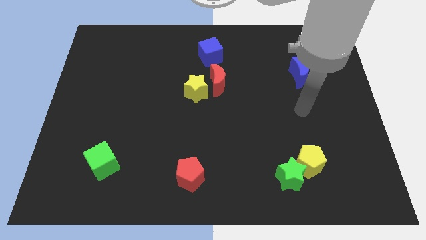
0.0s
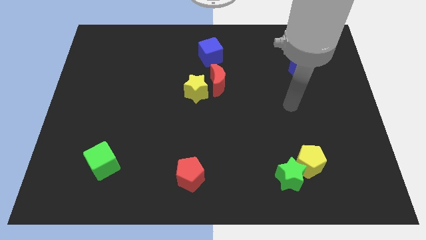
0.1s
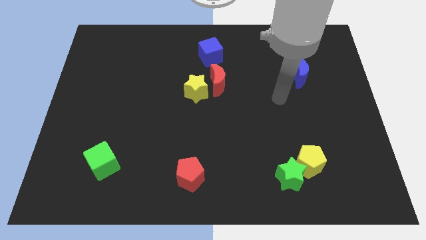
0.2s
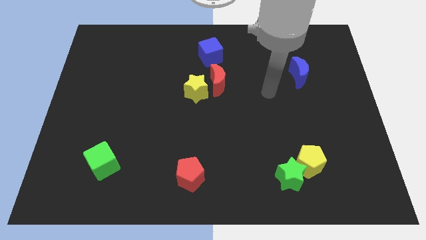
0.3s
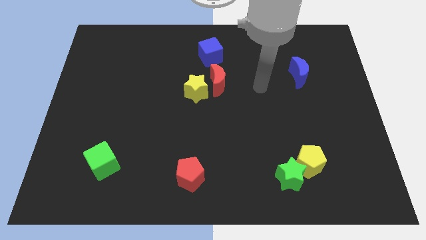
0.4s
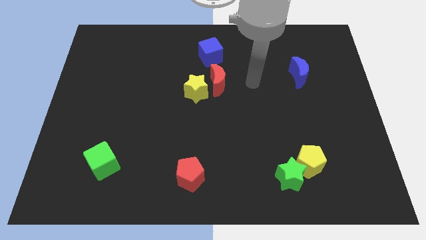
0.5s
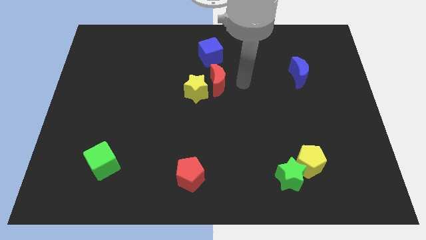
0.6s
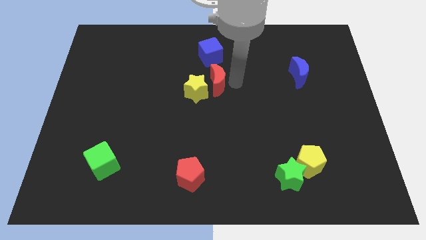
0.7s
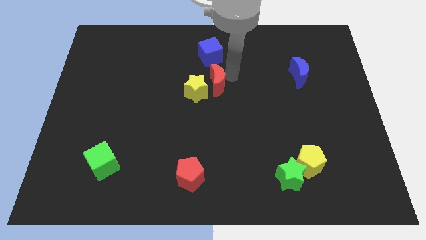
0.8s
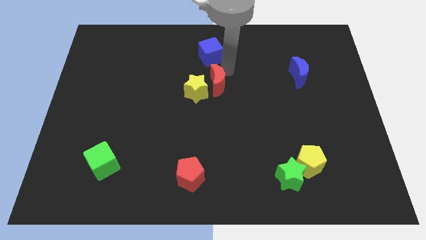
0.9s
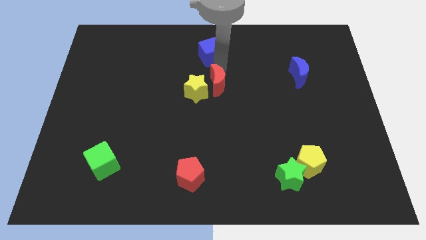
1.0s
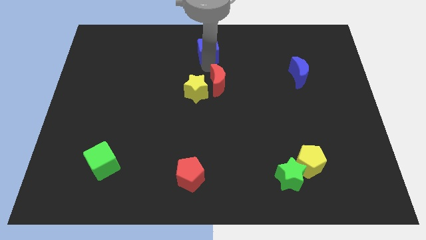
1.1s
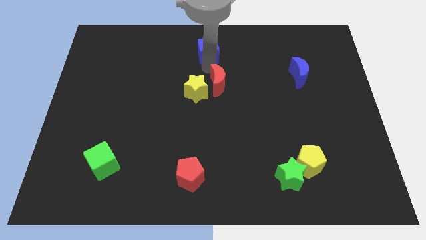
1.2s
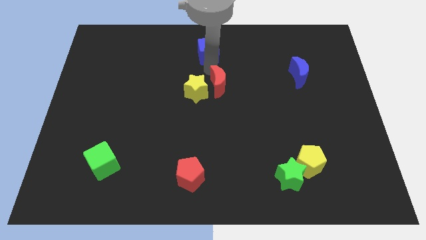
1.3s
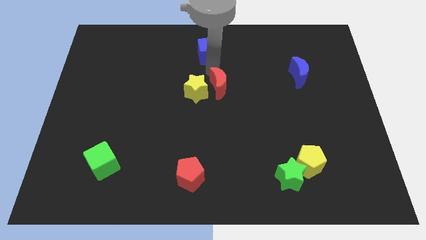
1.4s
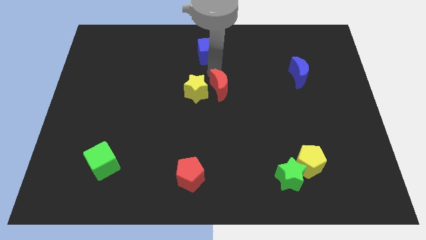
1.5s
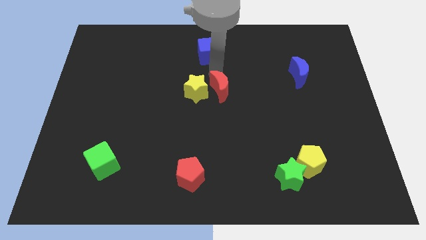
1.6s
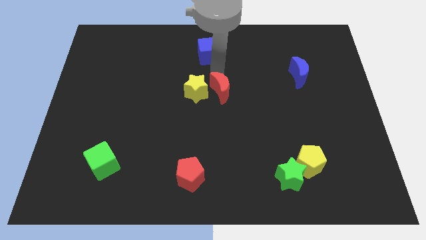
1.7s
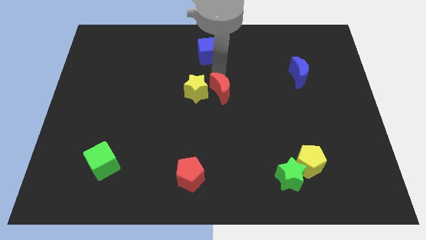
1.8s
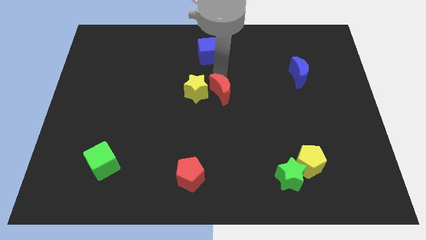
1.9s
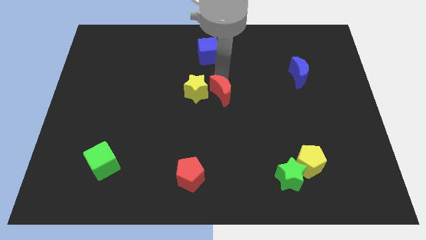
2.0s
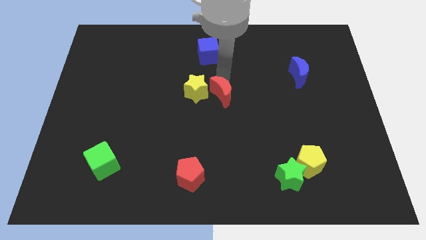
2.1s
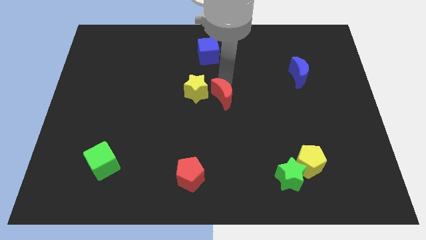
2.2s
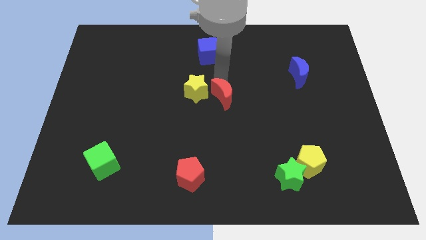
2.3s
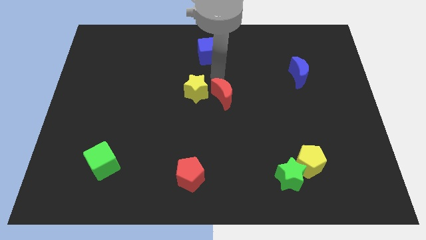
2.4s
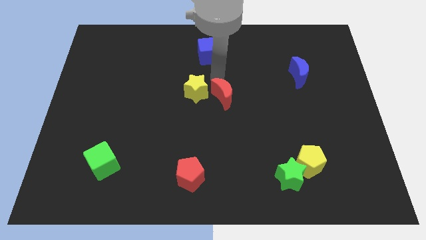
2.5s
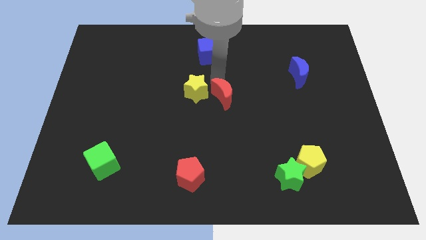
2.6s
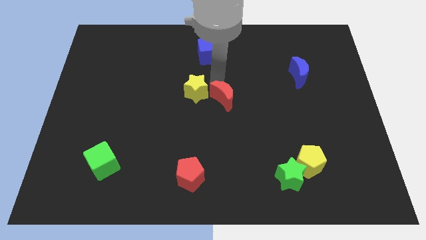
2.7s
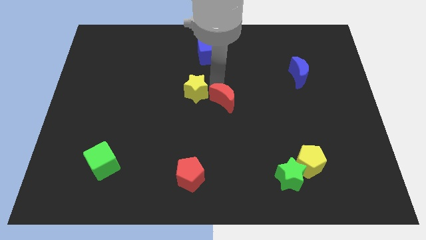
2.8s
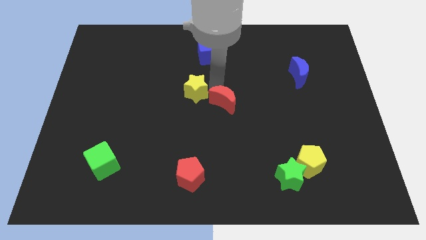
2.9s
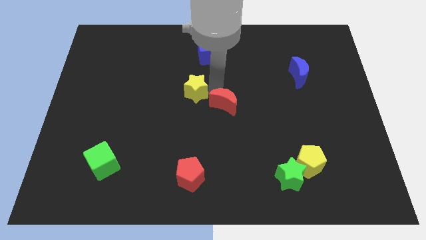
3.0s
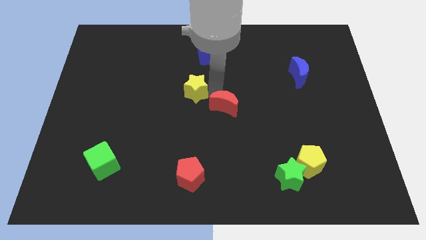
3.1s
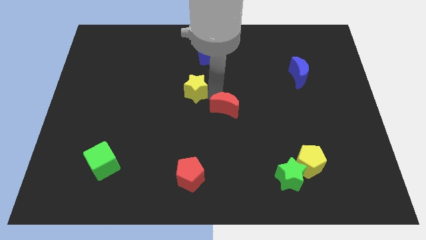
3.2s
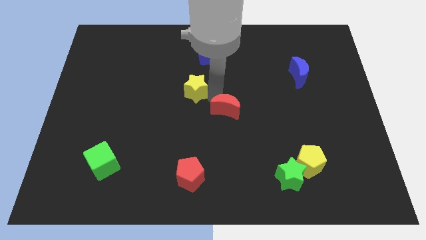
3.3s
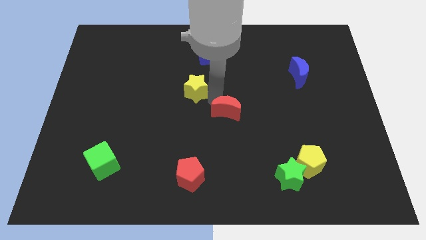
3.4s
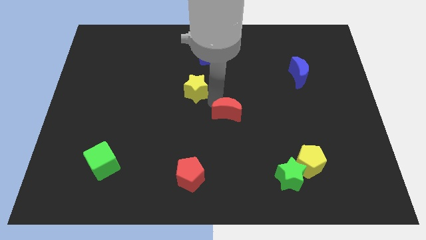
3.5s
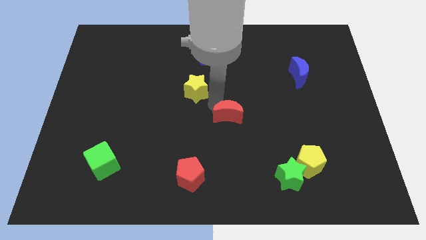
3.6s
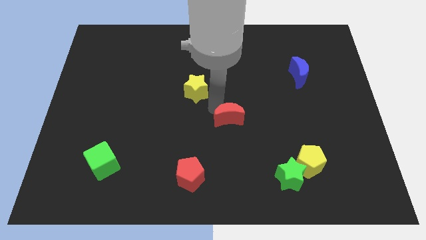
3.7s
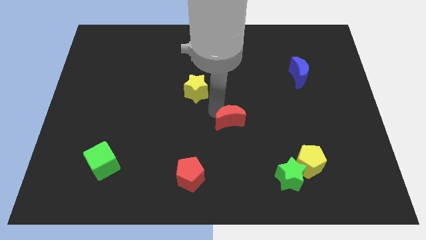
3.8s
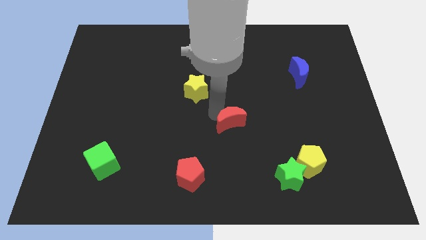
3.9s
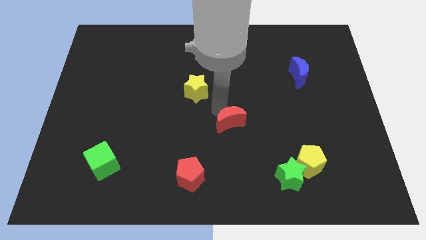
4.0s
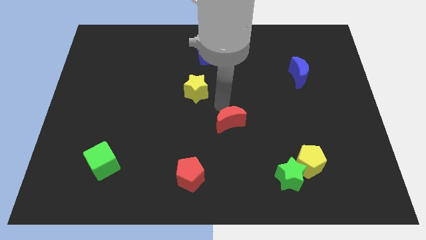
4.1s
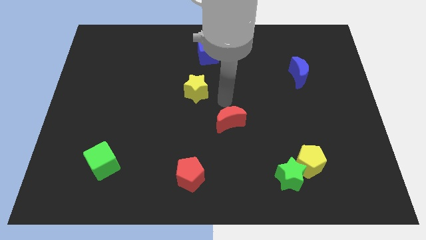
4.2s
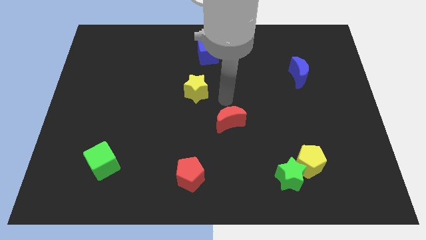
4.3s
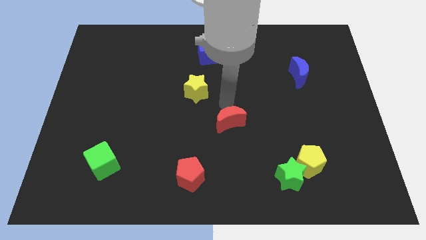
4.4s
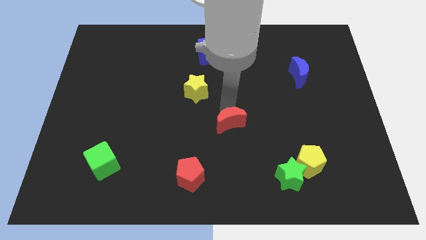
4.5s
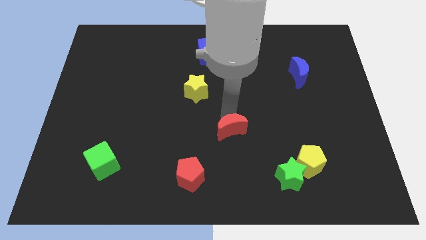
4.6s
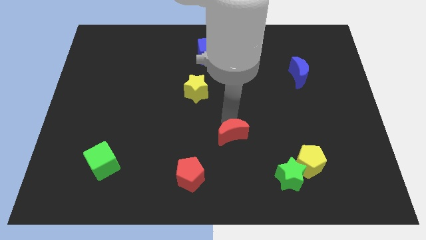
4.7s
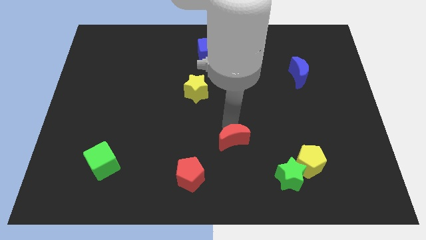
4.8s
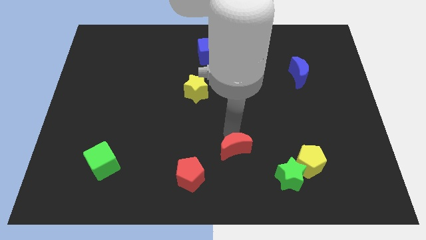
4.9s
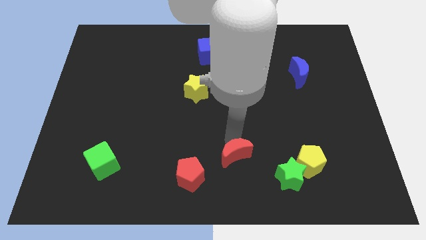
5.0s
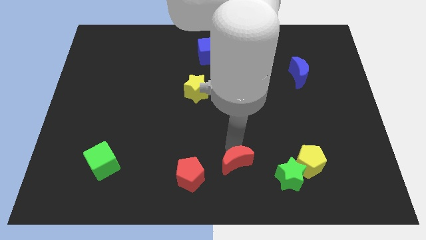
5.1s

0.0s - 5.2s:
put the red moon to the left side of the green star

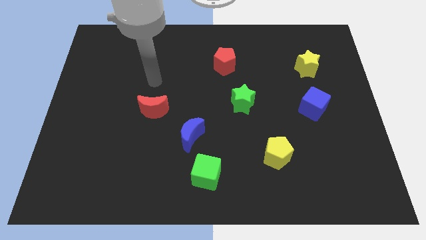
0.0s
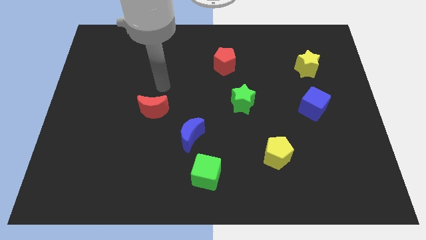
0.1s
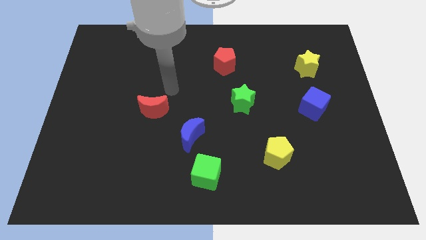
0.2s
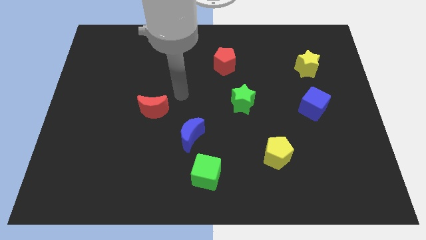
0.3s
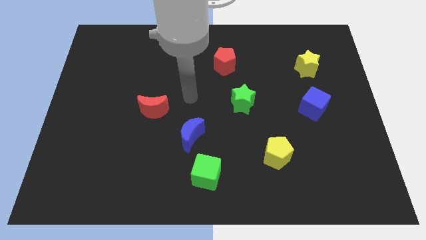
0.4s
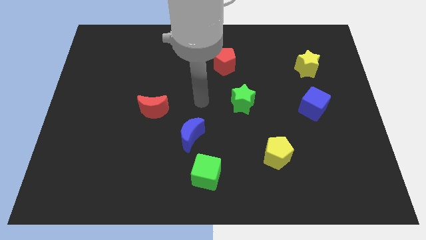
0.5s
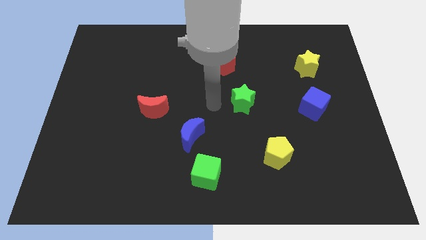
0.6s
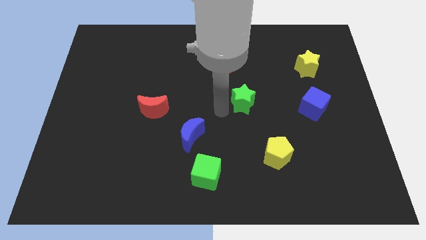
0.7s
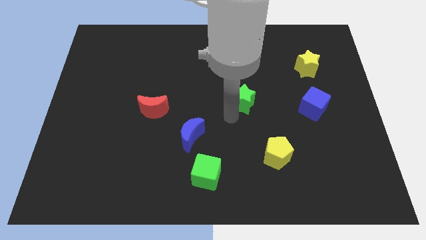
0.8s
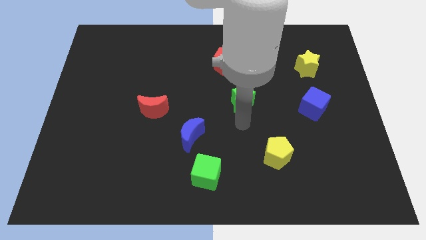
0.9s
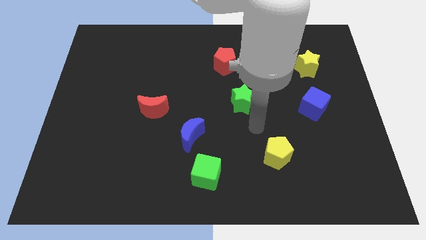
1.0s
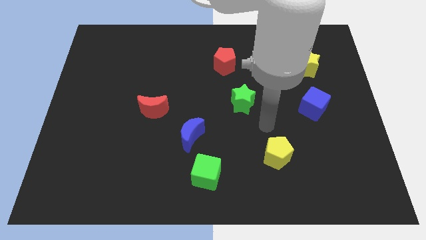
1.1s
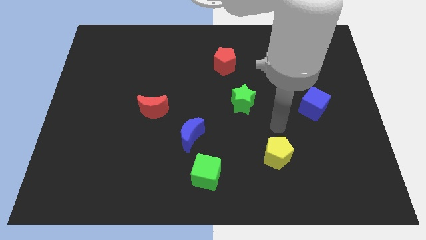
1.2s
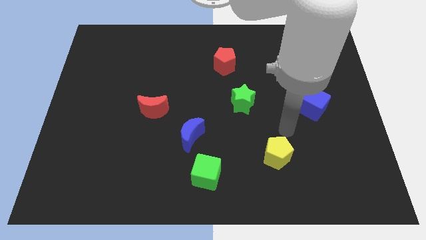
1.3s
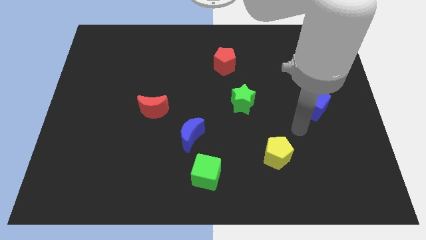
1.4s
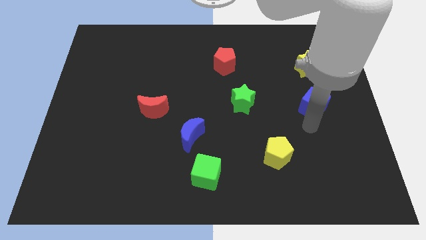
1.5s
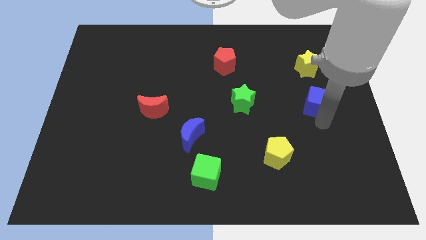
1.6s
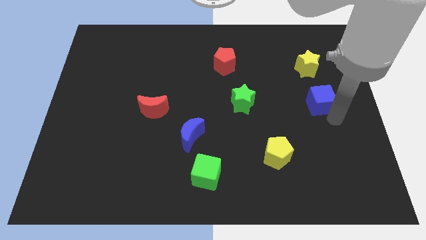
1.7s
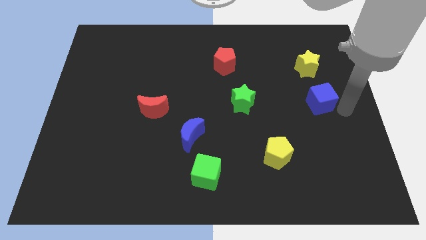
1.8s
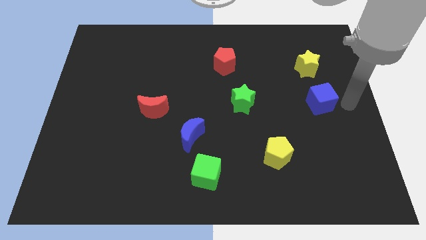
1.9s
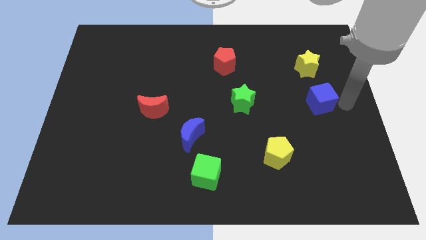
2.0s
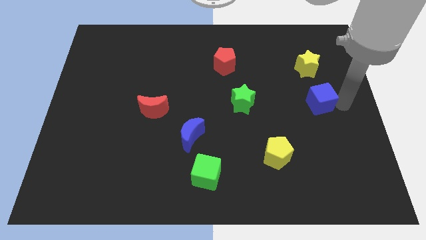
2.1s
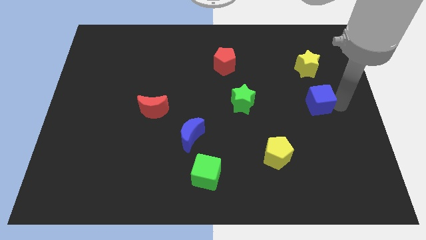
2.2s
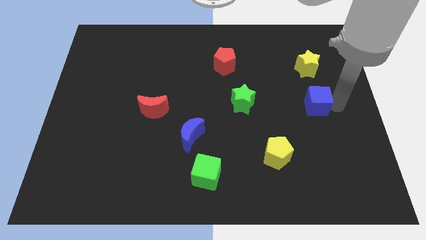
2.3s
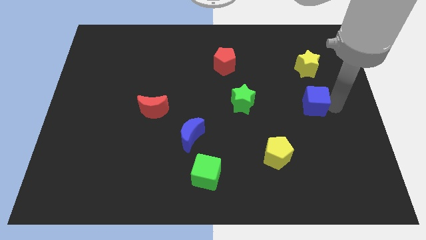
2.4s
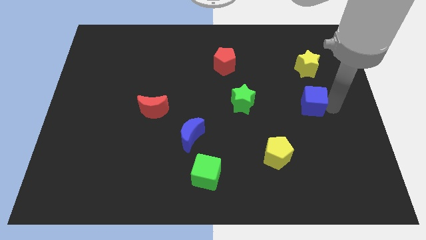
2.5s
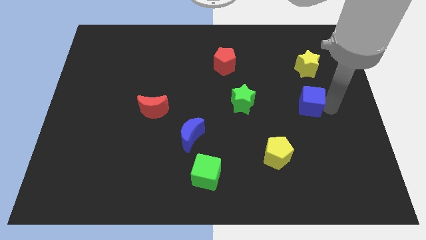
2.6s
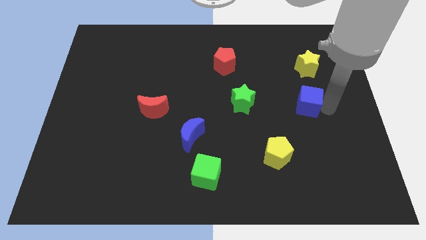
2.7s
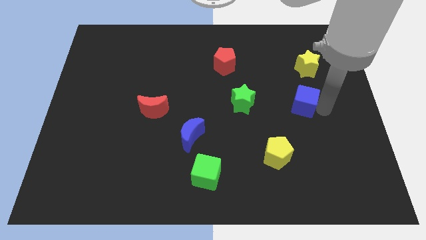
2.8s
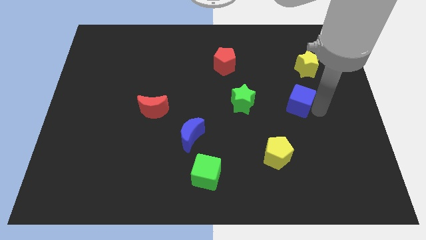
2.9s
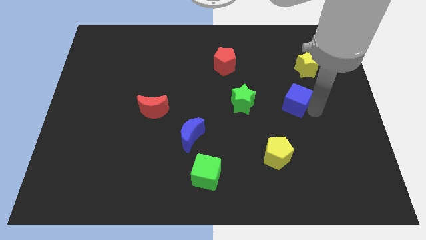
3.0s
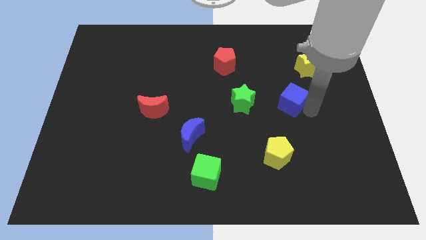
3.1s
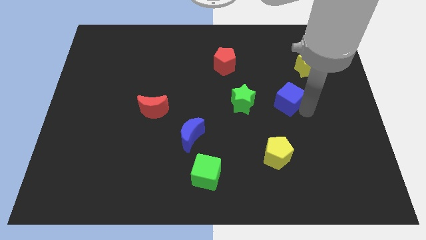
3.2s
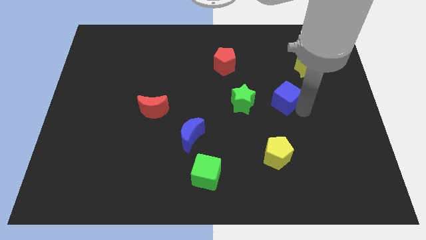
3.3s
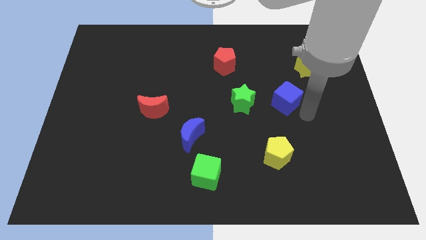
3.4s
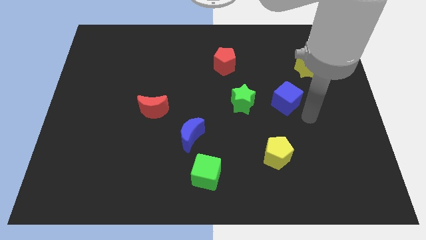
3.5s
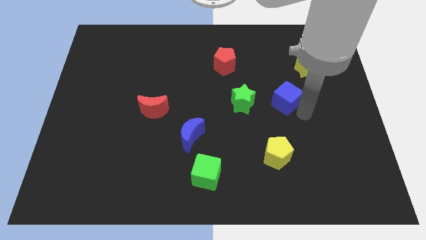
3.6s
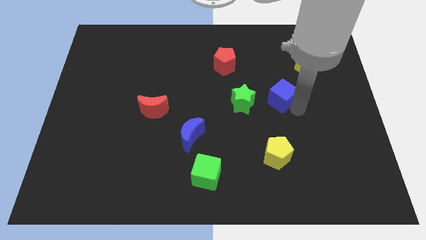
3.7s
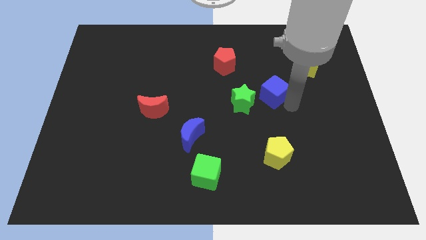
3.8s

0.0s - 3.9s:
move the blue cube to the top right side of the green star
